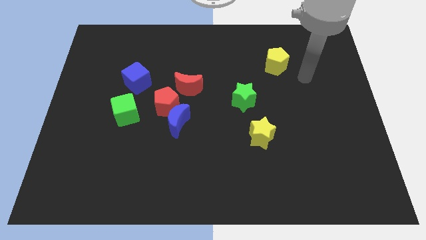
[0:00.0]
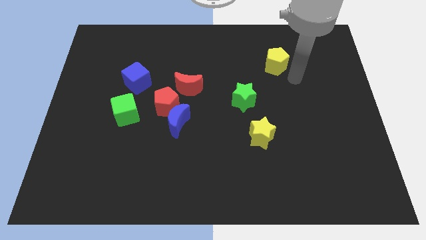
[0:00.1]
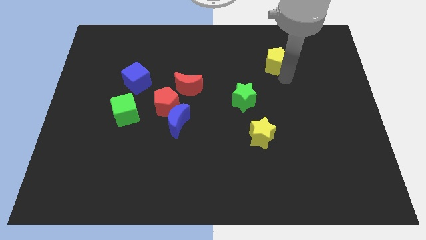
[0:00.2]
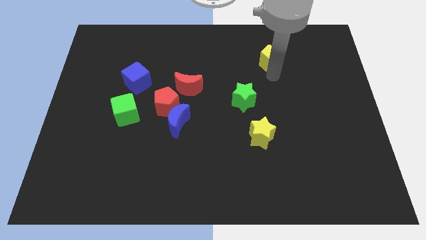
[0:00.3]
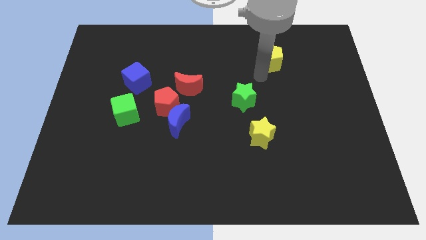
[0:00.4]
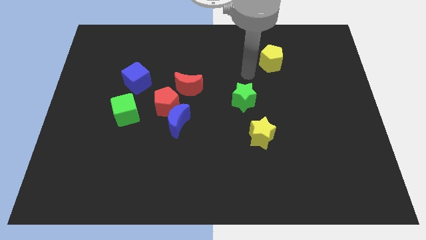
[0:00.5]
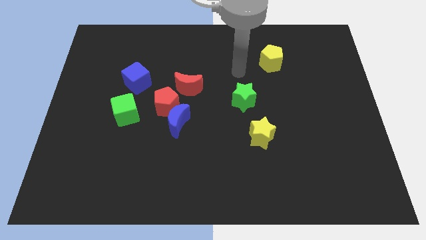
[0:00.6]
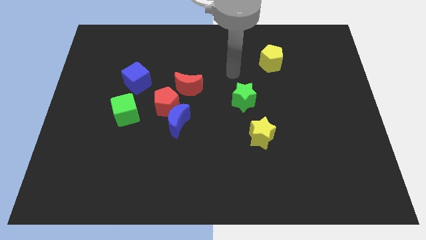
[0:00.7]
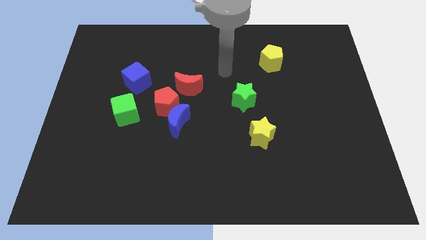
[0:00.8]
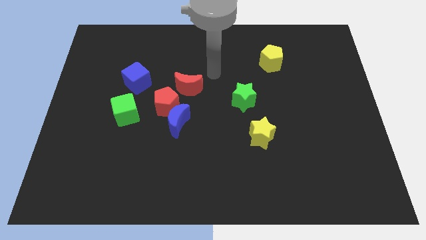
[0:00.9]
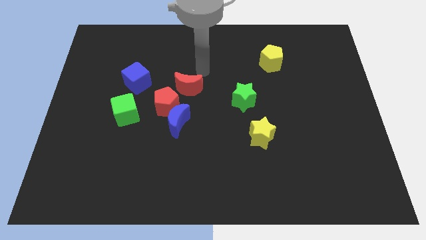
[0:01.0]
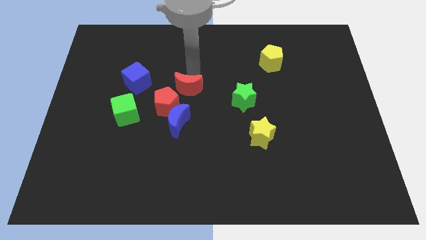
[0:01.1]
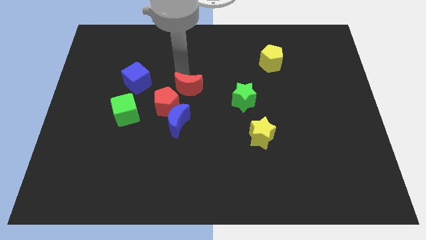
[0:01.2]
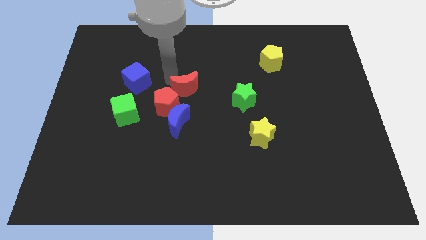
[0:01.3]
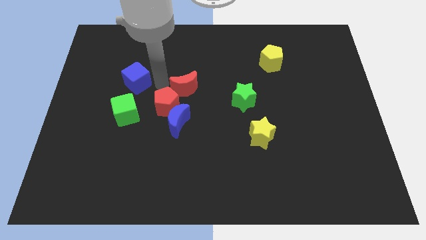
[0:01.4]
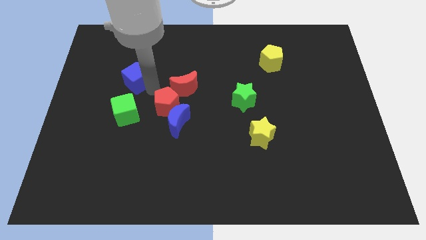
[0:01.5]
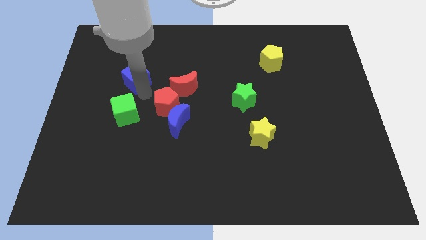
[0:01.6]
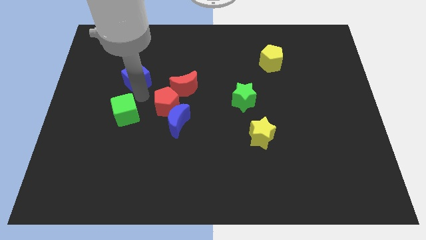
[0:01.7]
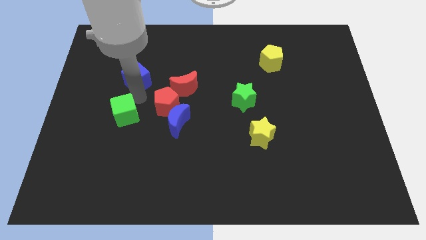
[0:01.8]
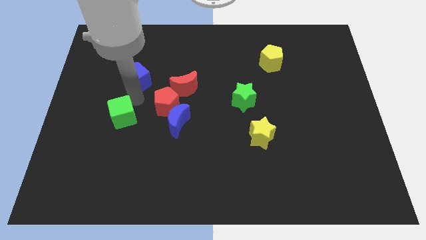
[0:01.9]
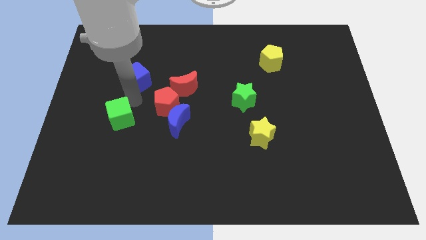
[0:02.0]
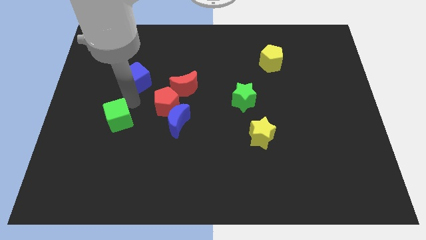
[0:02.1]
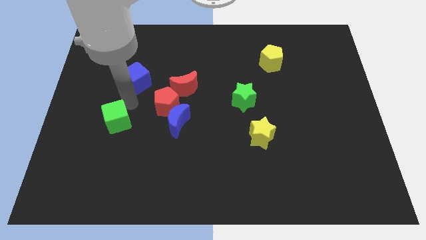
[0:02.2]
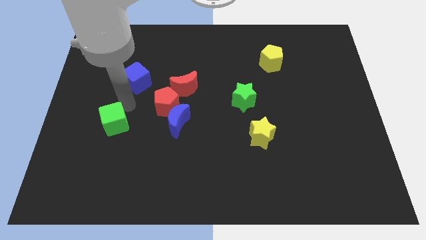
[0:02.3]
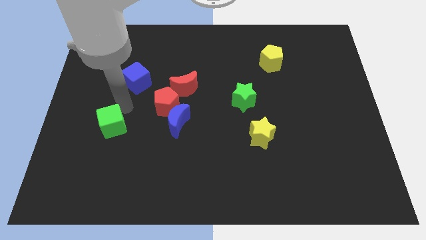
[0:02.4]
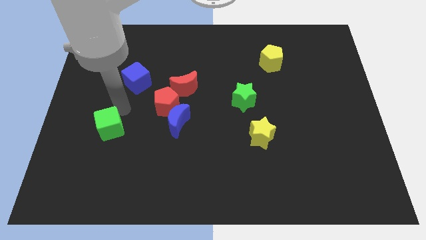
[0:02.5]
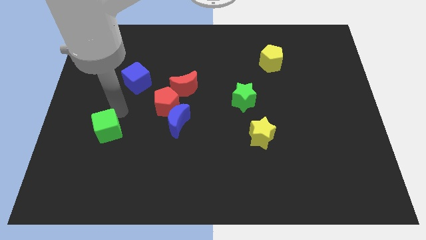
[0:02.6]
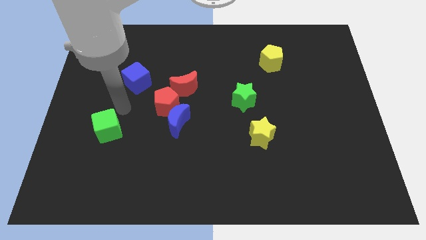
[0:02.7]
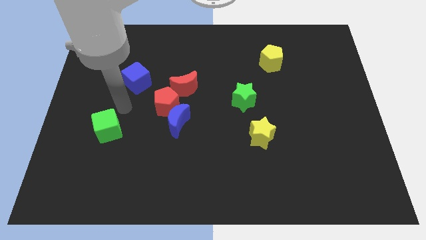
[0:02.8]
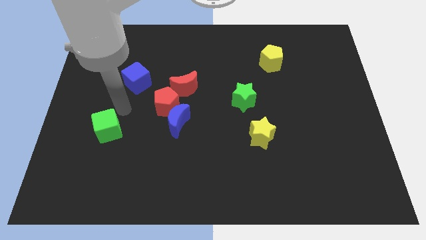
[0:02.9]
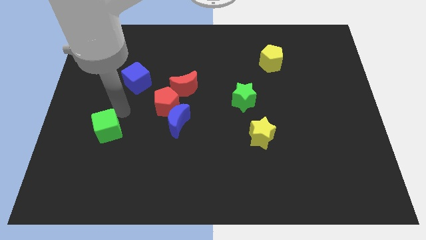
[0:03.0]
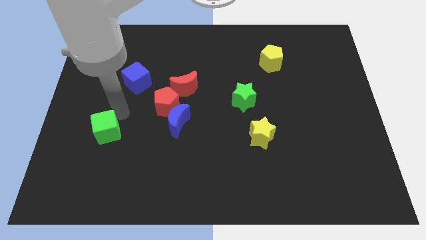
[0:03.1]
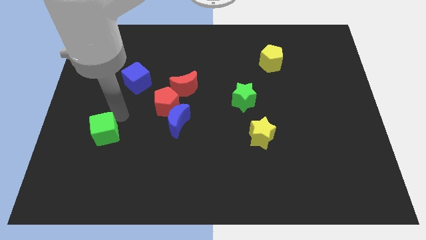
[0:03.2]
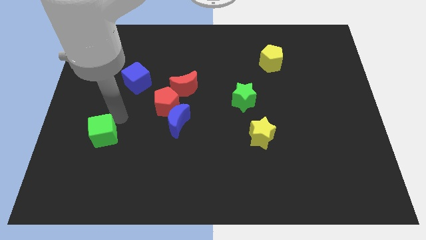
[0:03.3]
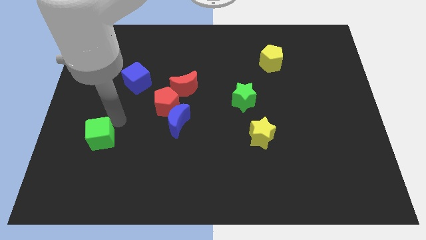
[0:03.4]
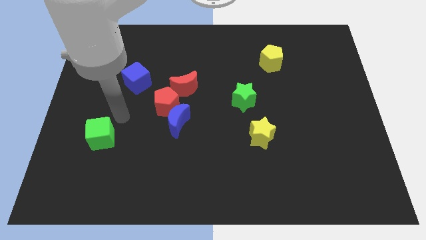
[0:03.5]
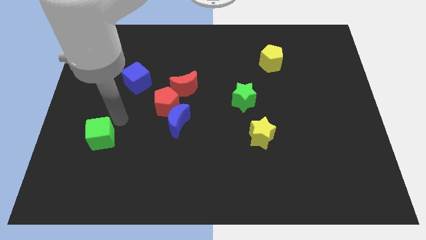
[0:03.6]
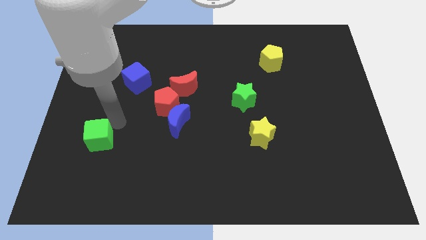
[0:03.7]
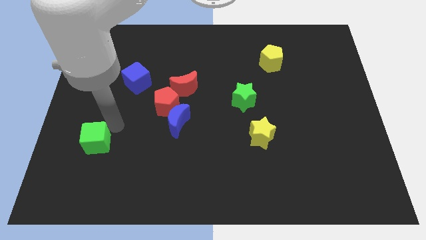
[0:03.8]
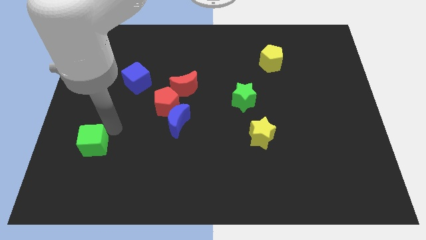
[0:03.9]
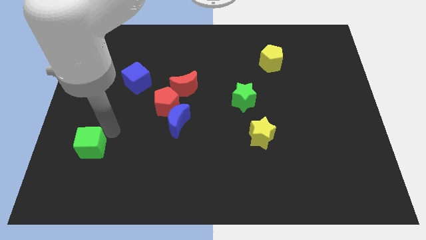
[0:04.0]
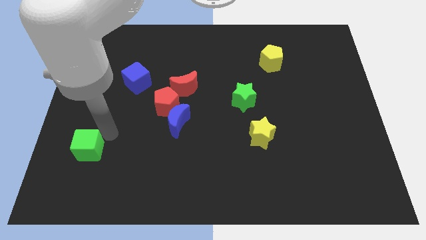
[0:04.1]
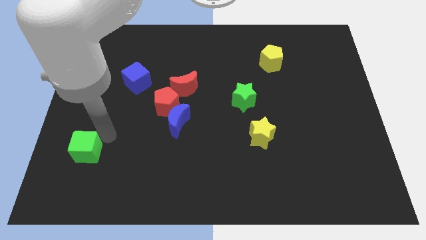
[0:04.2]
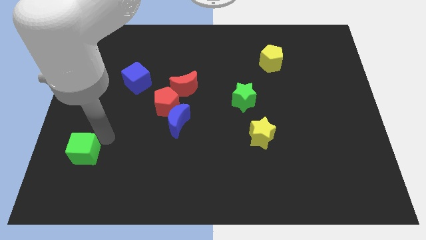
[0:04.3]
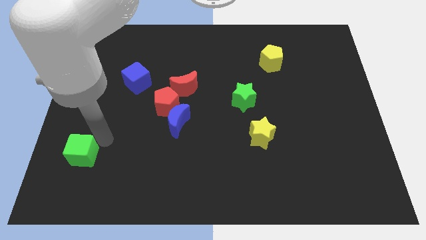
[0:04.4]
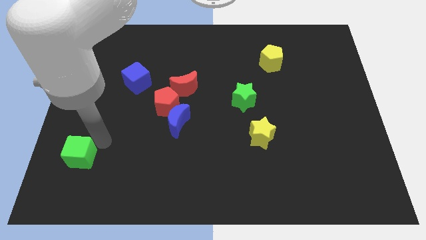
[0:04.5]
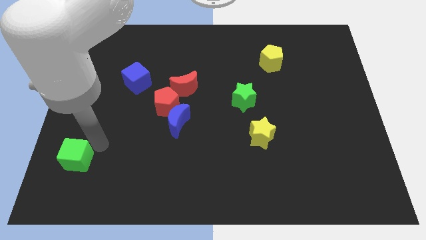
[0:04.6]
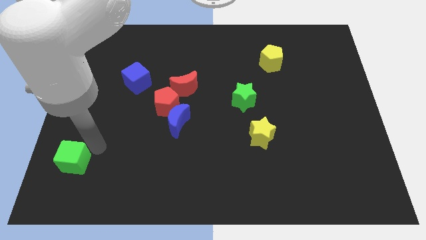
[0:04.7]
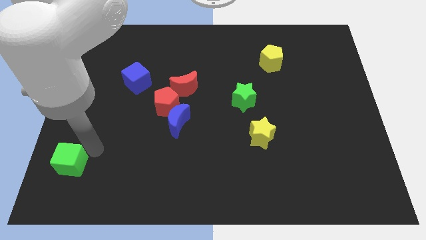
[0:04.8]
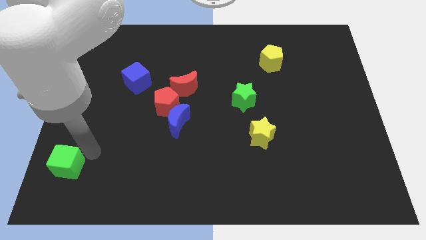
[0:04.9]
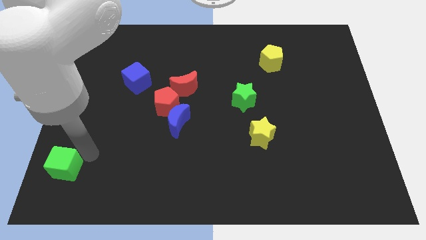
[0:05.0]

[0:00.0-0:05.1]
slide the green cube to the bottom left corner

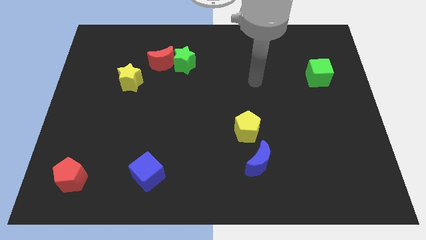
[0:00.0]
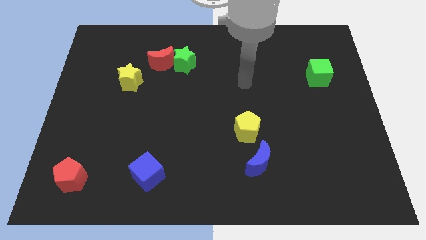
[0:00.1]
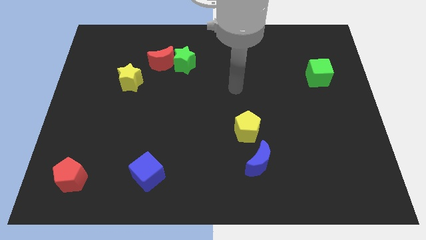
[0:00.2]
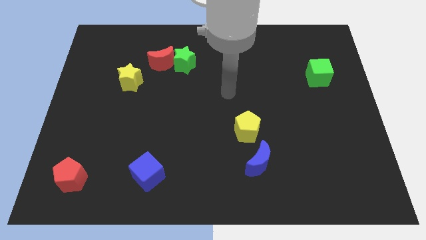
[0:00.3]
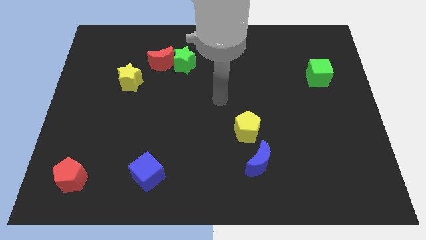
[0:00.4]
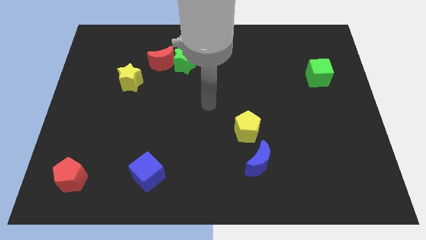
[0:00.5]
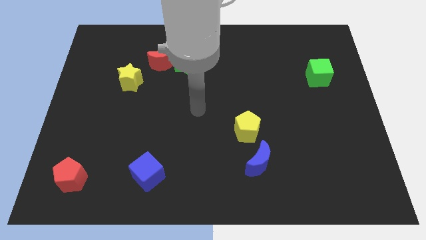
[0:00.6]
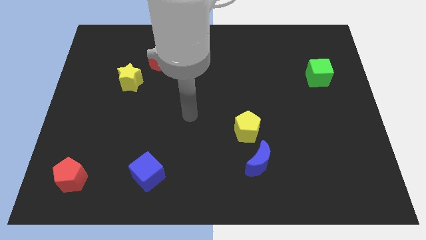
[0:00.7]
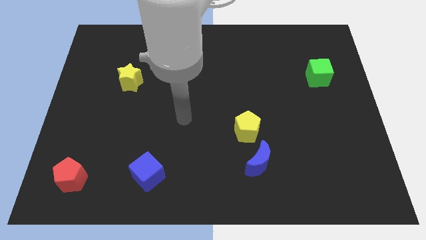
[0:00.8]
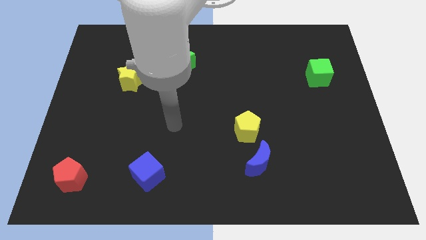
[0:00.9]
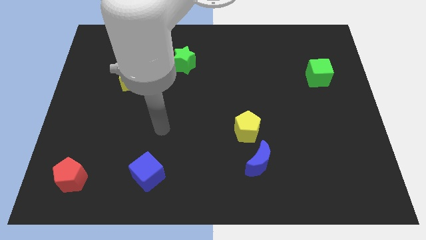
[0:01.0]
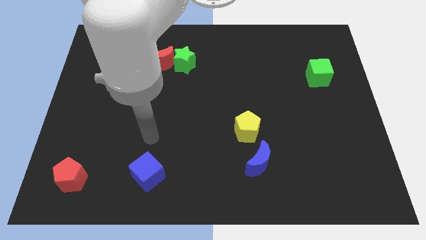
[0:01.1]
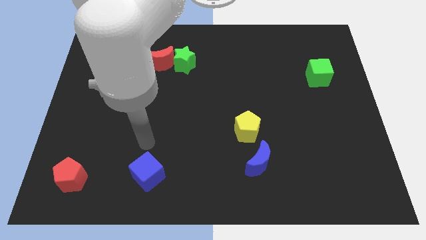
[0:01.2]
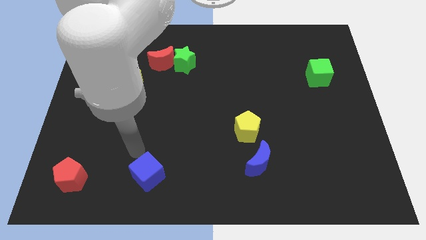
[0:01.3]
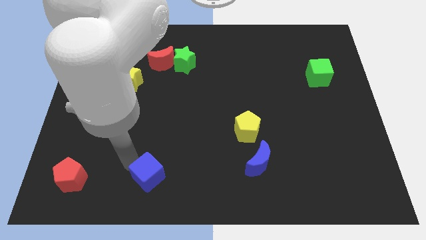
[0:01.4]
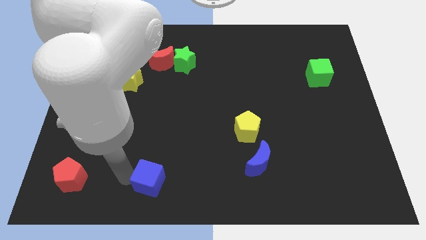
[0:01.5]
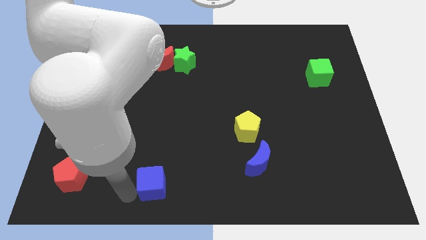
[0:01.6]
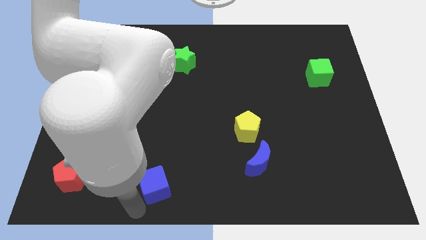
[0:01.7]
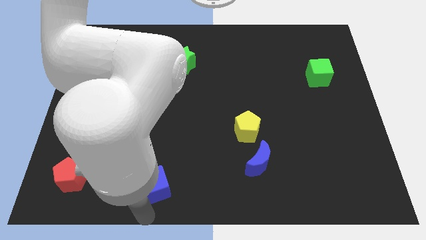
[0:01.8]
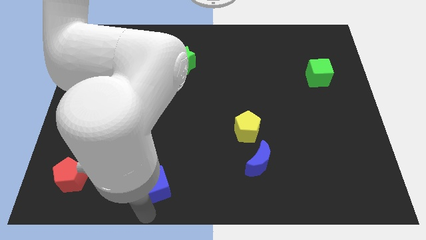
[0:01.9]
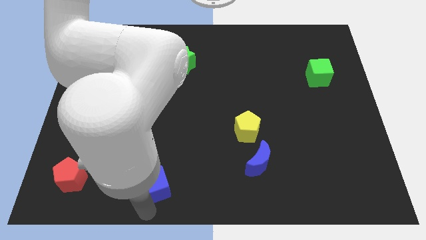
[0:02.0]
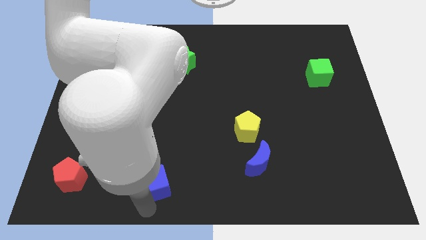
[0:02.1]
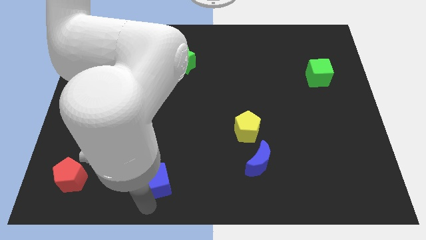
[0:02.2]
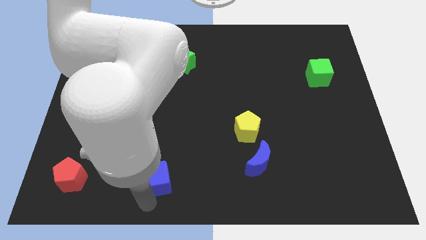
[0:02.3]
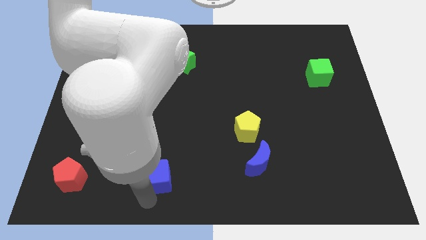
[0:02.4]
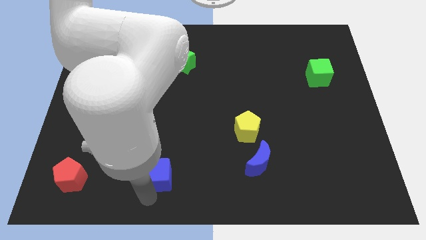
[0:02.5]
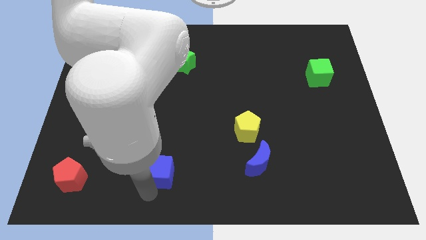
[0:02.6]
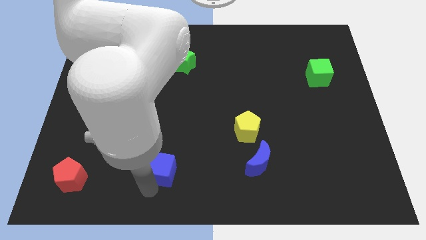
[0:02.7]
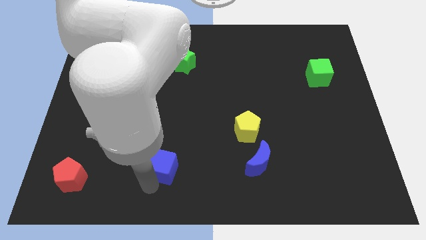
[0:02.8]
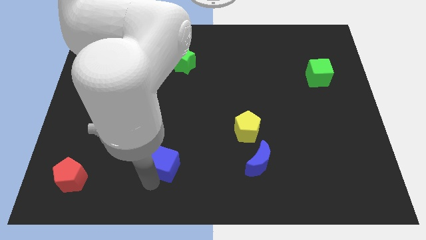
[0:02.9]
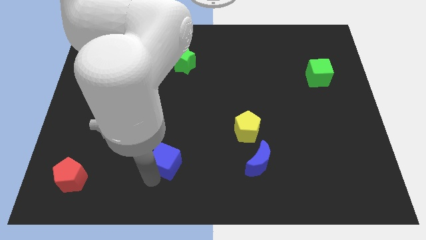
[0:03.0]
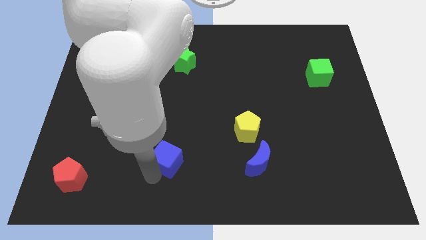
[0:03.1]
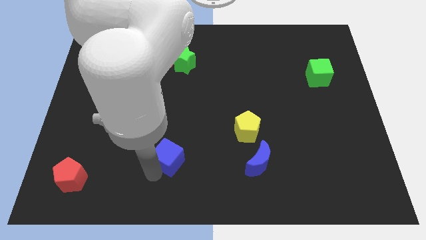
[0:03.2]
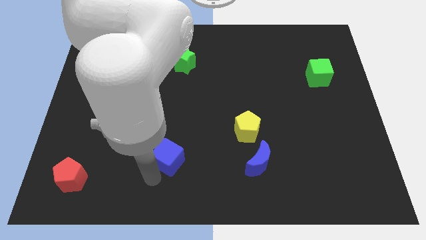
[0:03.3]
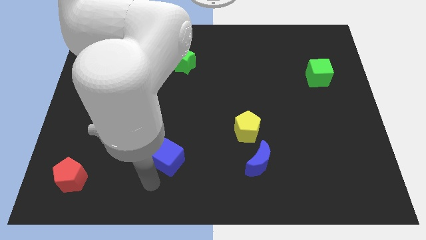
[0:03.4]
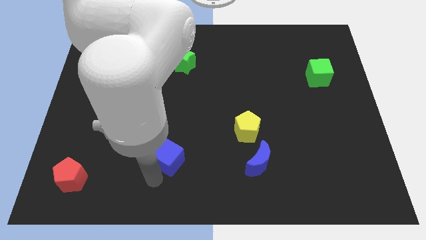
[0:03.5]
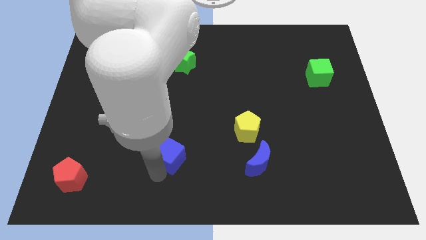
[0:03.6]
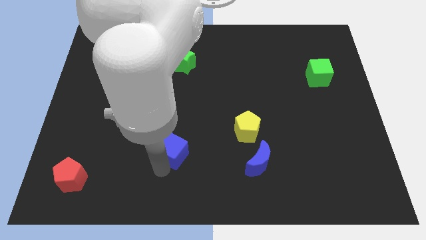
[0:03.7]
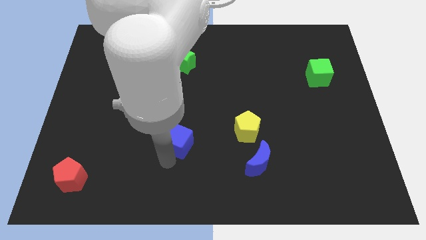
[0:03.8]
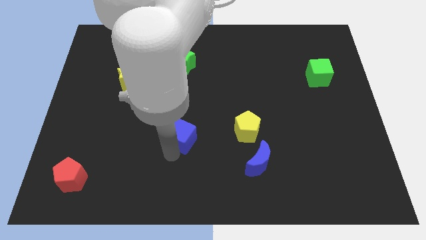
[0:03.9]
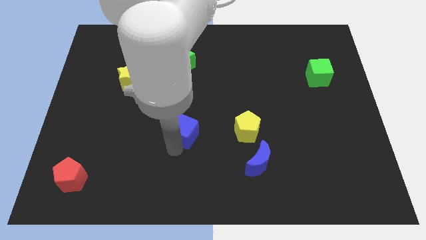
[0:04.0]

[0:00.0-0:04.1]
slide the blue cube to the center of the board
